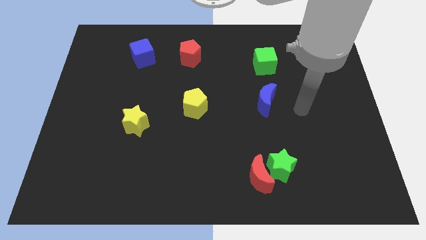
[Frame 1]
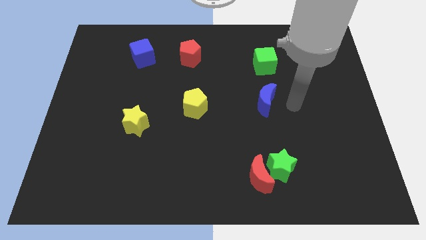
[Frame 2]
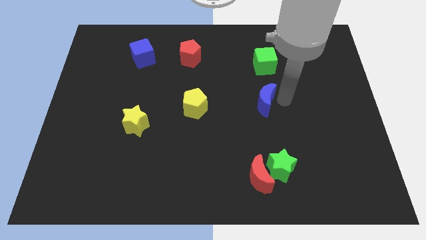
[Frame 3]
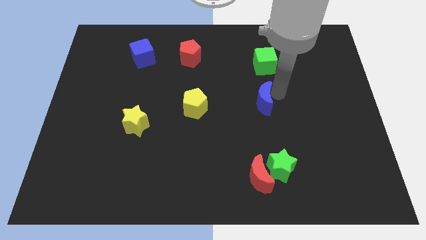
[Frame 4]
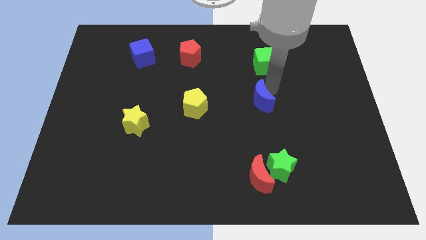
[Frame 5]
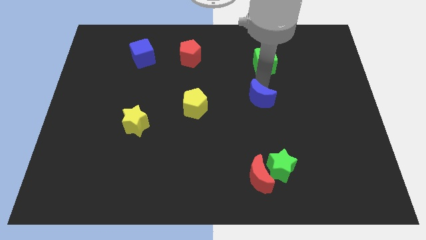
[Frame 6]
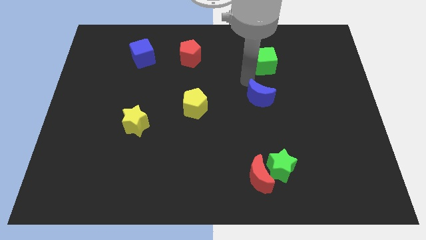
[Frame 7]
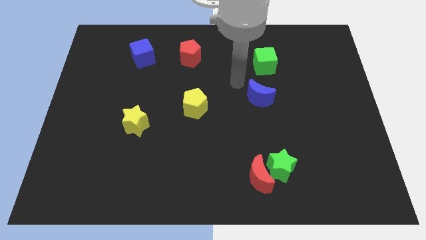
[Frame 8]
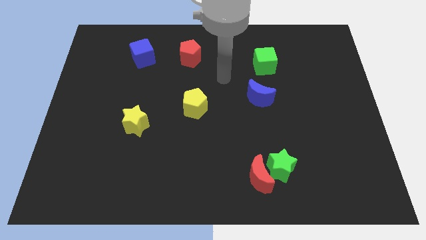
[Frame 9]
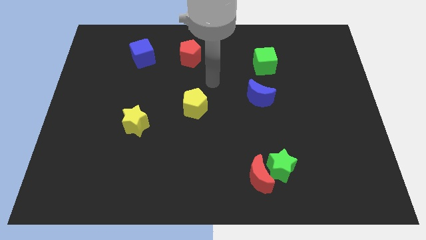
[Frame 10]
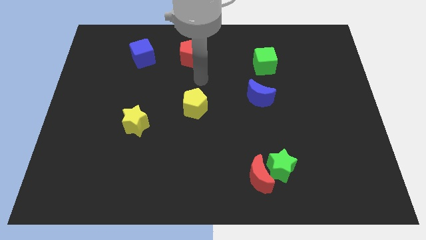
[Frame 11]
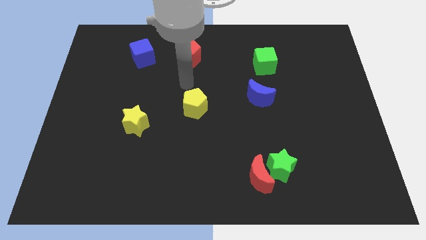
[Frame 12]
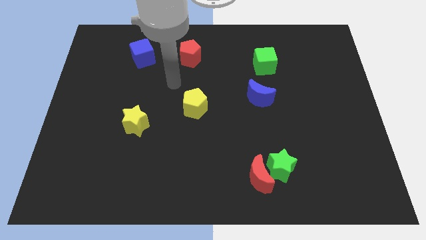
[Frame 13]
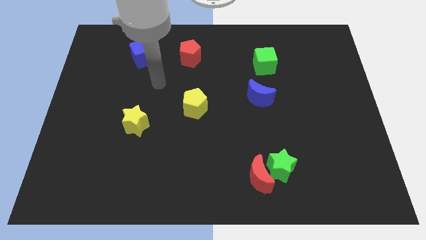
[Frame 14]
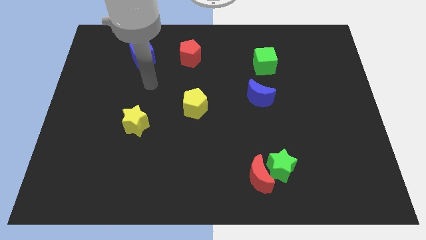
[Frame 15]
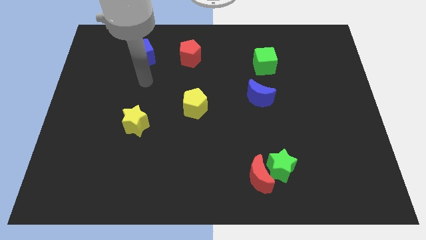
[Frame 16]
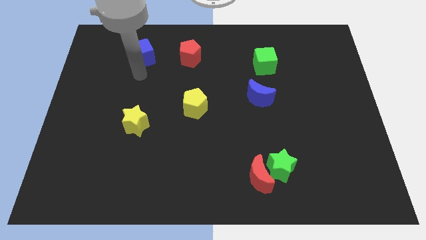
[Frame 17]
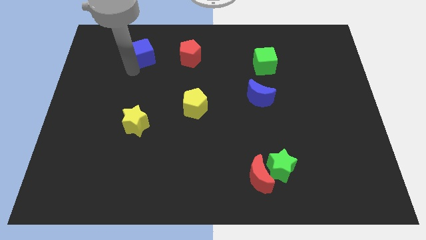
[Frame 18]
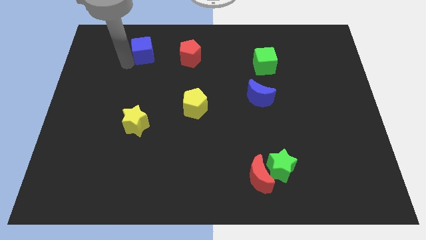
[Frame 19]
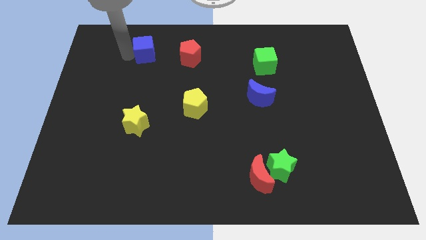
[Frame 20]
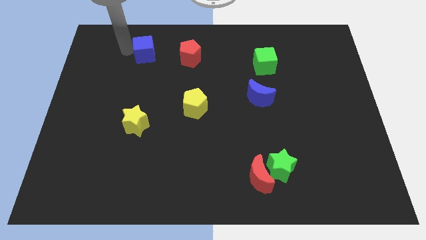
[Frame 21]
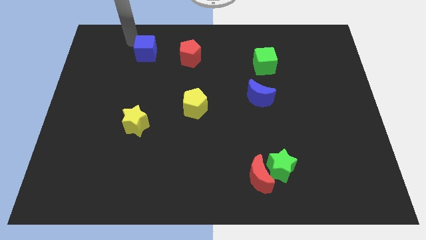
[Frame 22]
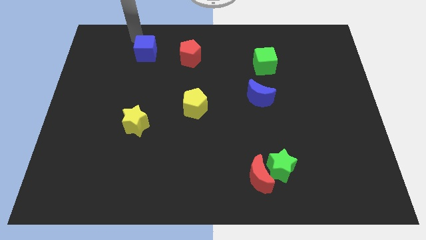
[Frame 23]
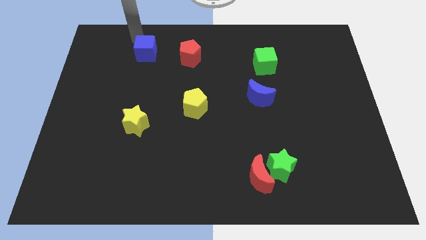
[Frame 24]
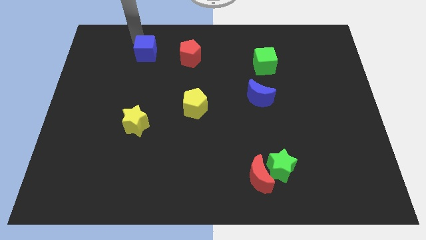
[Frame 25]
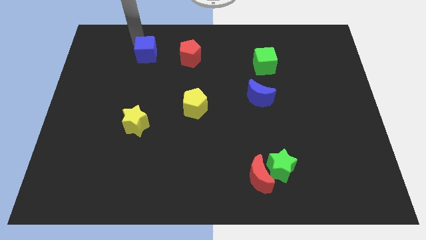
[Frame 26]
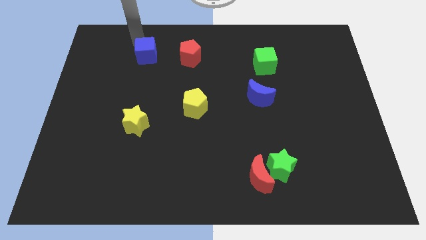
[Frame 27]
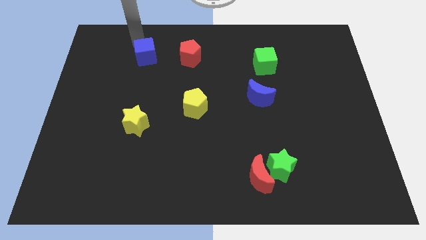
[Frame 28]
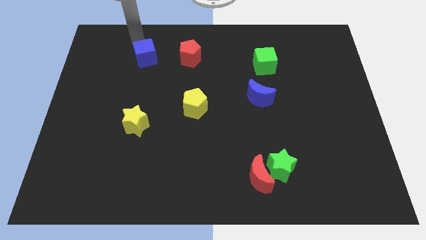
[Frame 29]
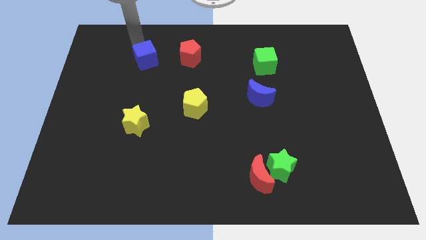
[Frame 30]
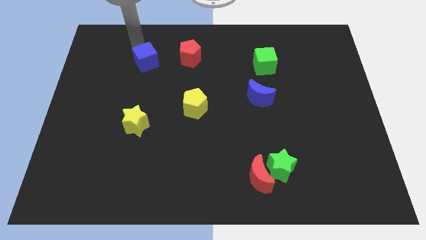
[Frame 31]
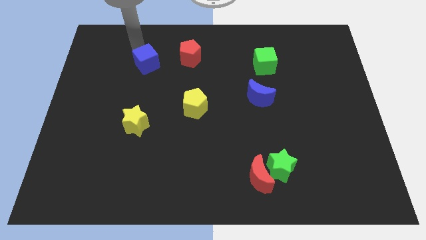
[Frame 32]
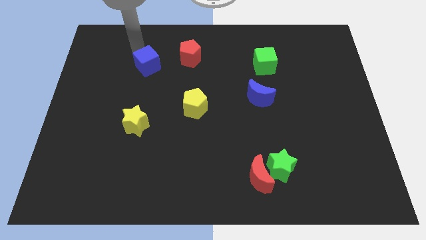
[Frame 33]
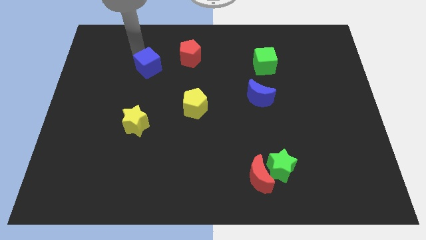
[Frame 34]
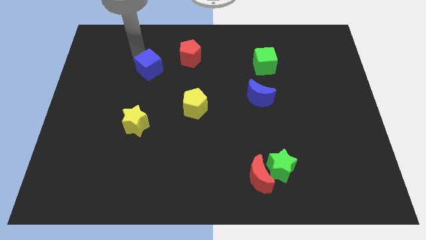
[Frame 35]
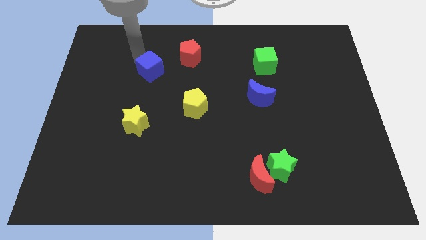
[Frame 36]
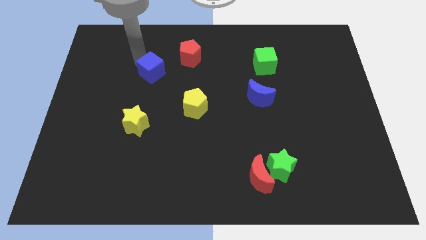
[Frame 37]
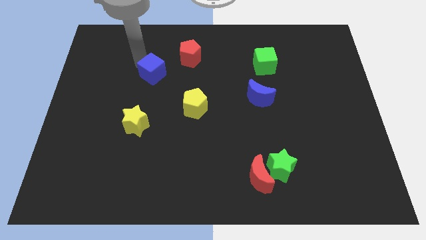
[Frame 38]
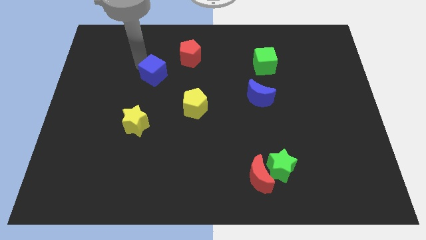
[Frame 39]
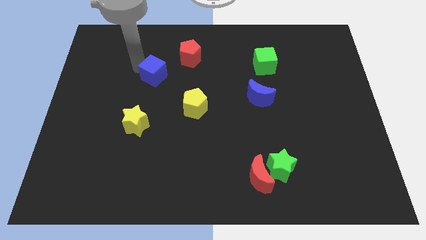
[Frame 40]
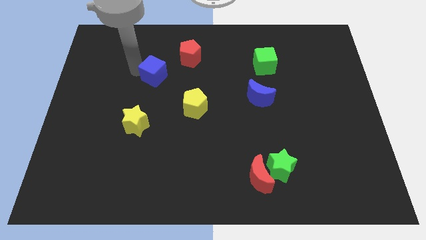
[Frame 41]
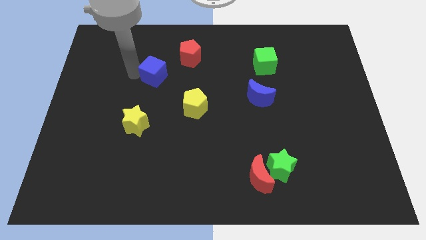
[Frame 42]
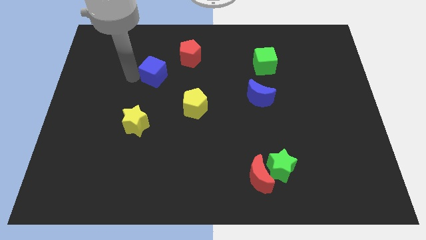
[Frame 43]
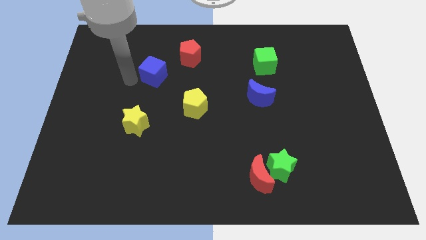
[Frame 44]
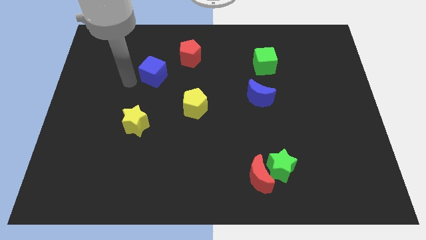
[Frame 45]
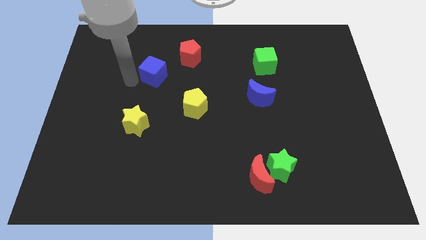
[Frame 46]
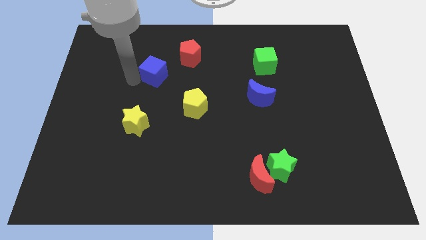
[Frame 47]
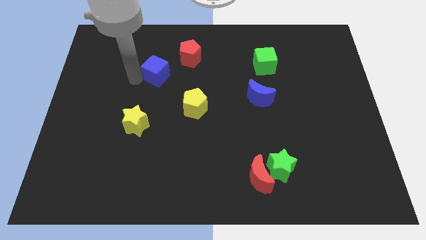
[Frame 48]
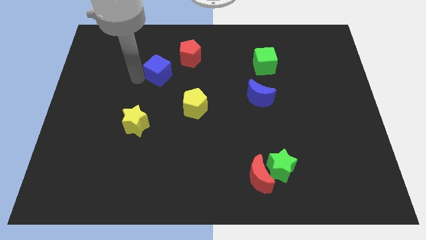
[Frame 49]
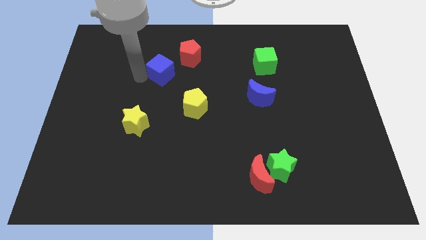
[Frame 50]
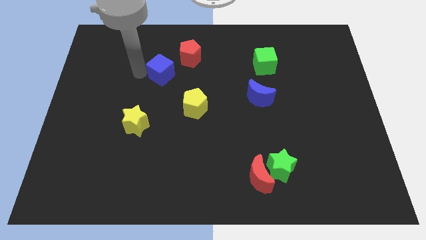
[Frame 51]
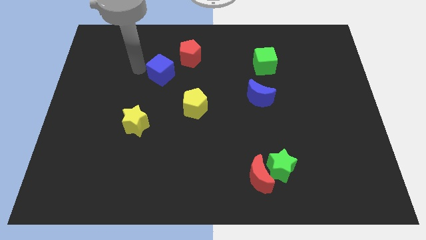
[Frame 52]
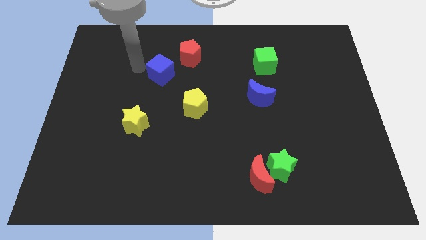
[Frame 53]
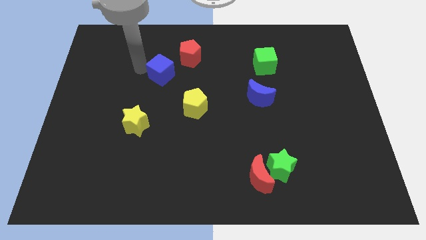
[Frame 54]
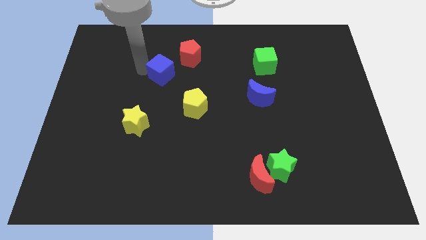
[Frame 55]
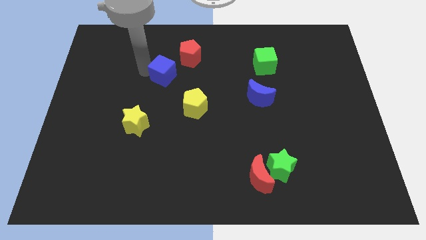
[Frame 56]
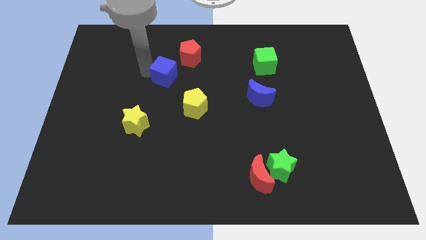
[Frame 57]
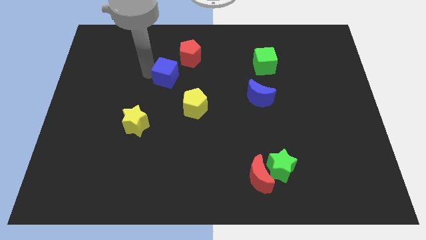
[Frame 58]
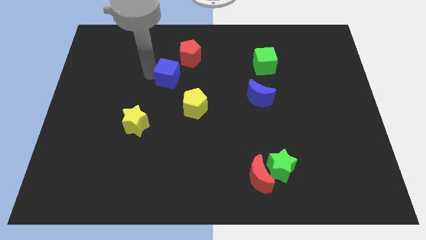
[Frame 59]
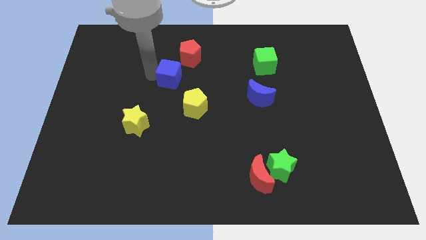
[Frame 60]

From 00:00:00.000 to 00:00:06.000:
slide the blue cube to the bottom side of the red pentagon
